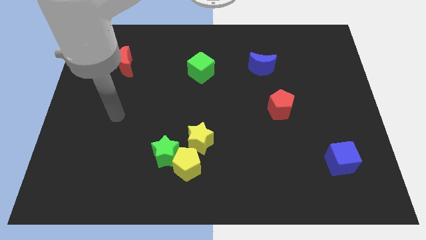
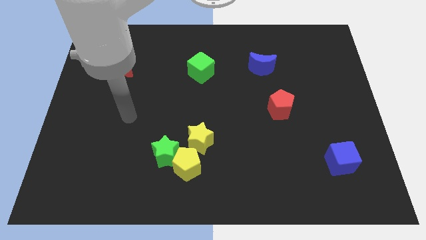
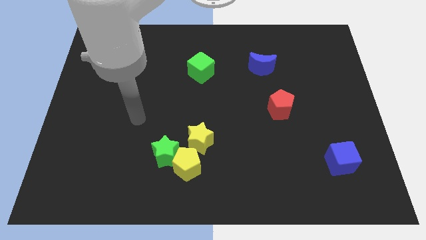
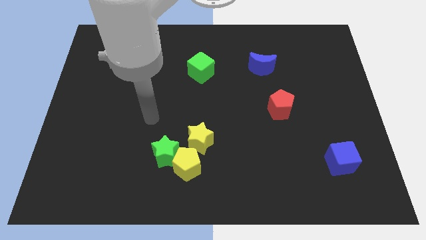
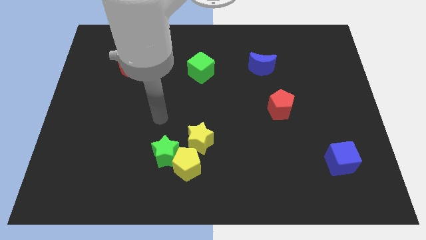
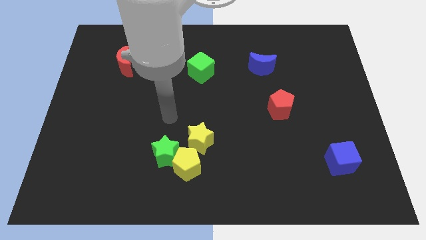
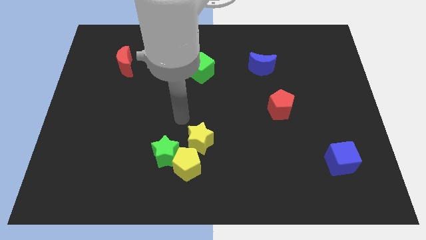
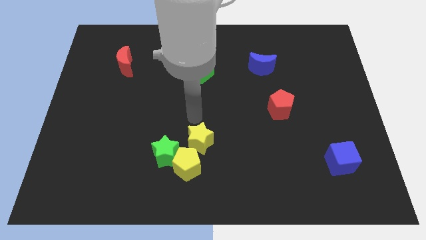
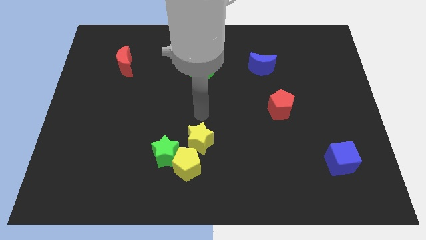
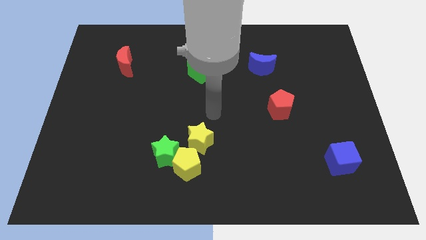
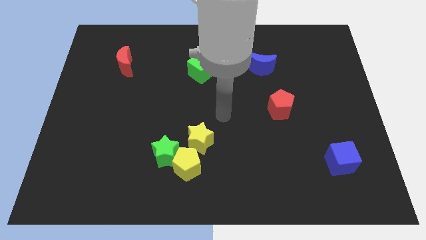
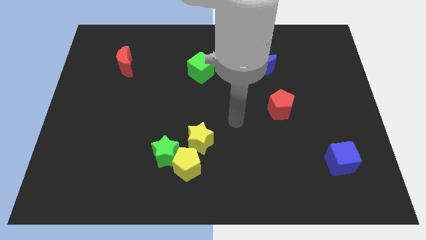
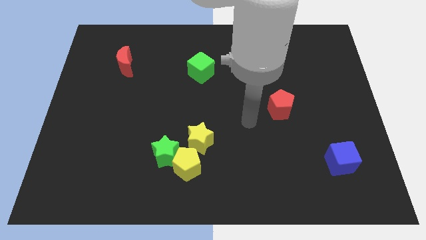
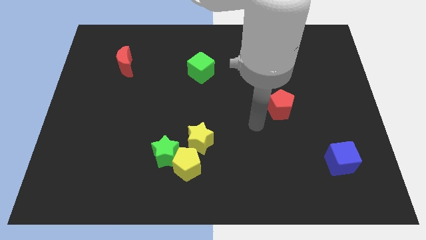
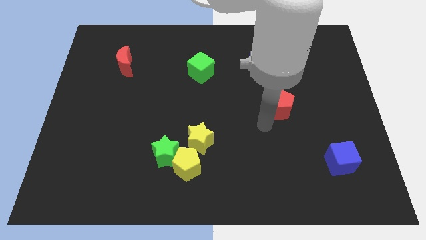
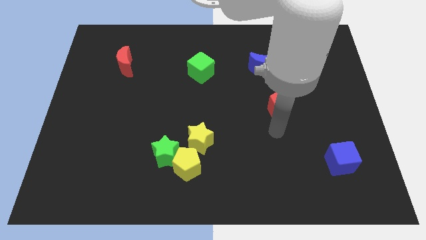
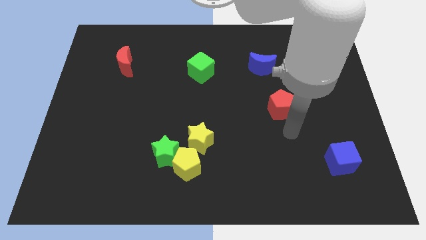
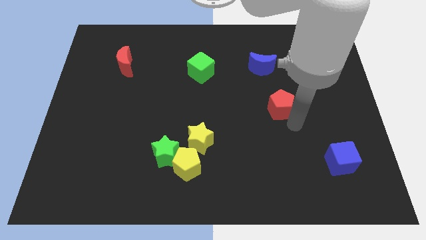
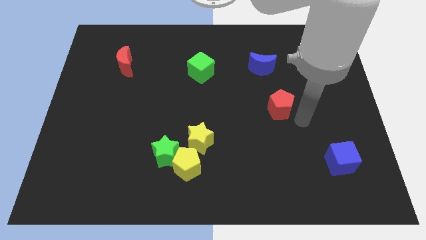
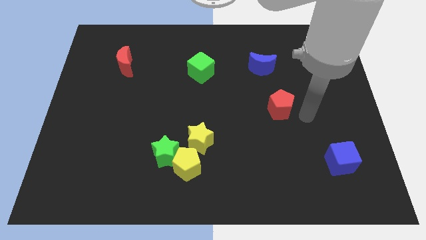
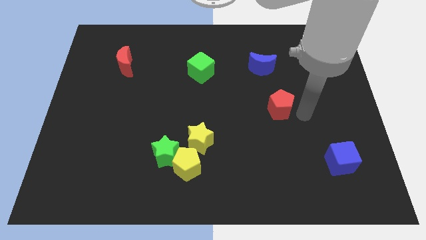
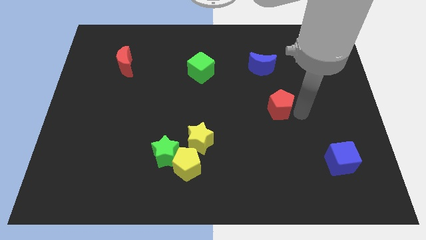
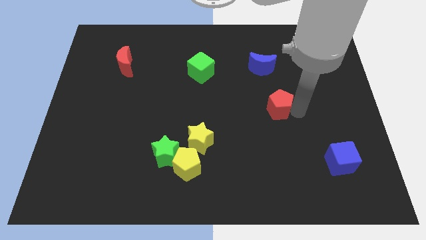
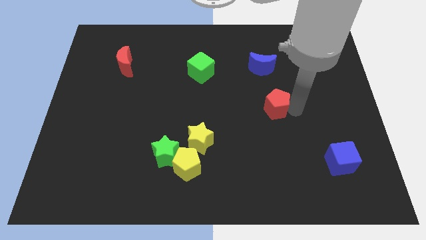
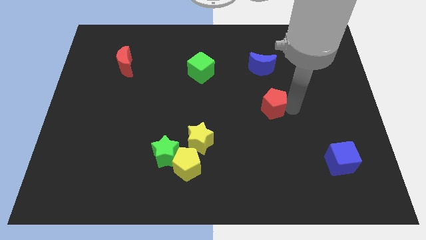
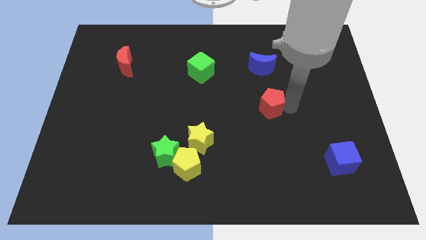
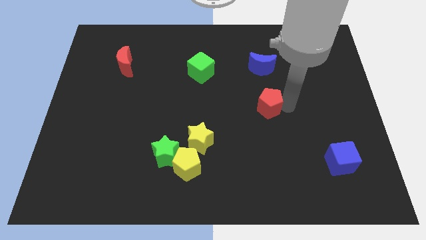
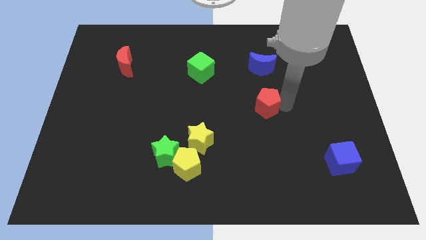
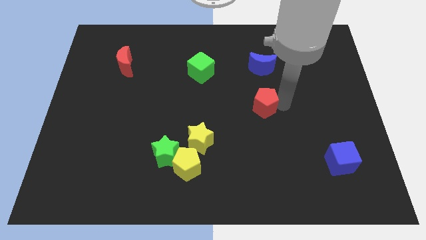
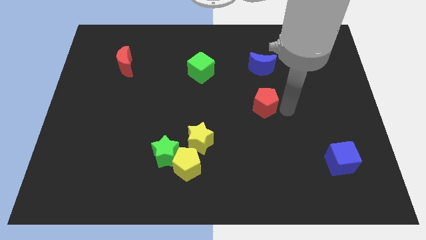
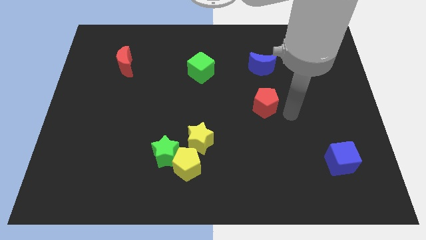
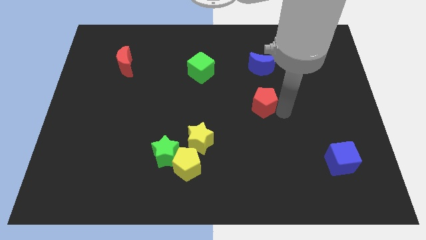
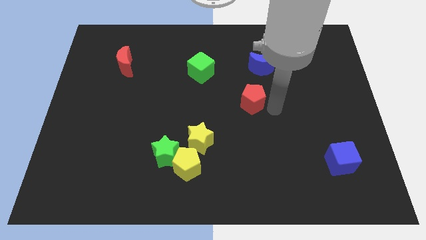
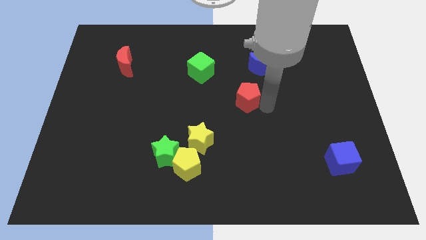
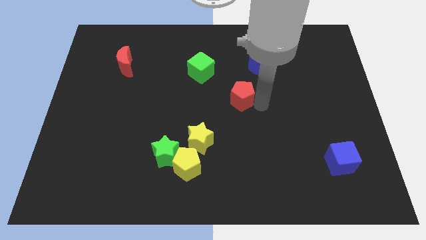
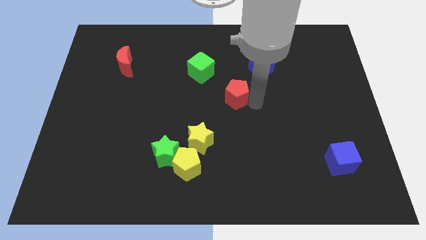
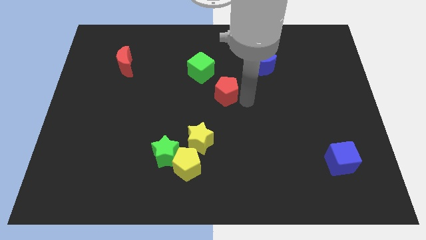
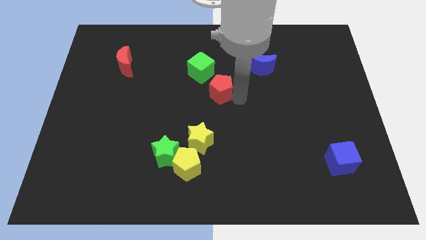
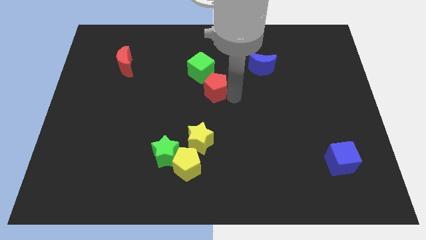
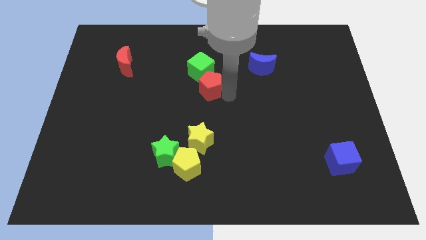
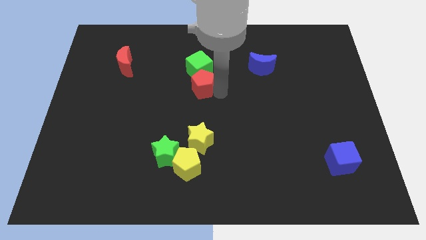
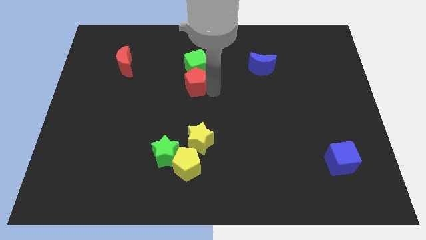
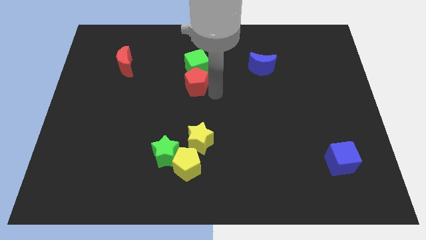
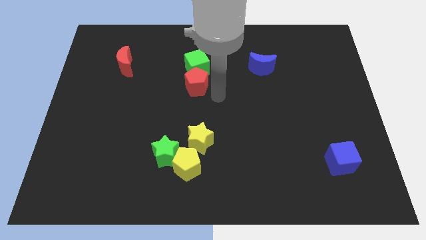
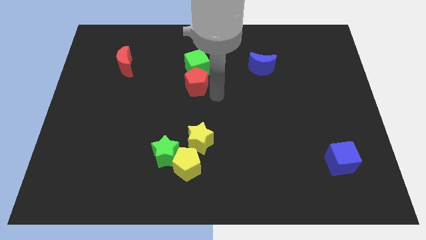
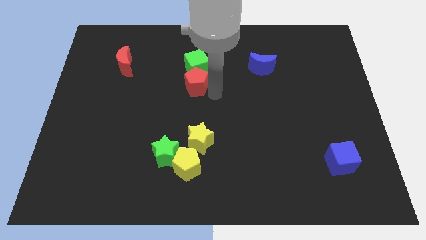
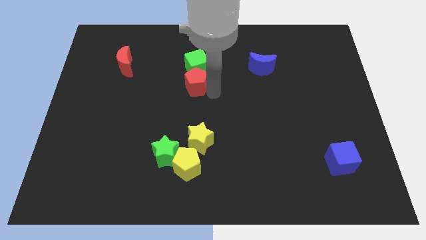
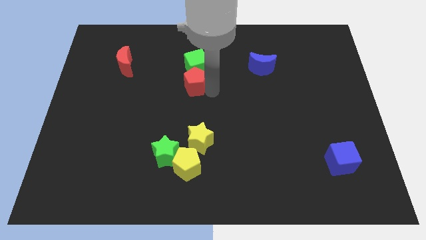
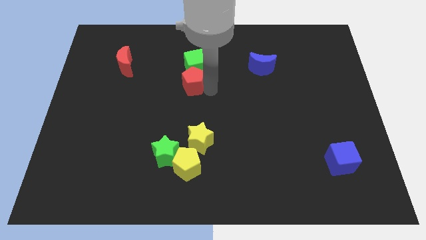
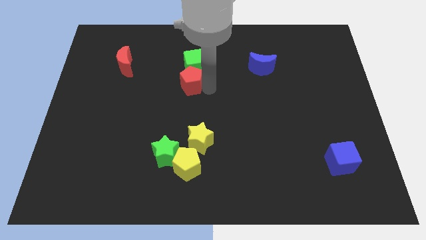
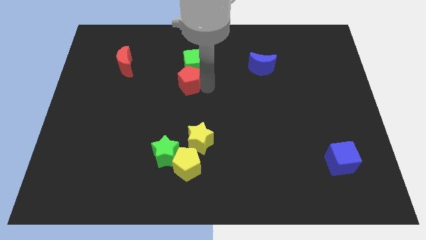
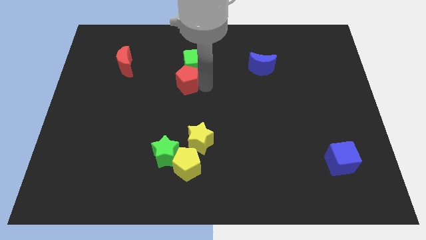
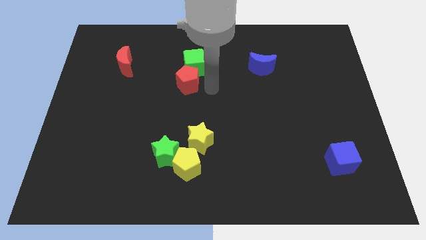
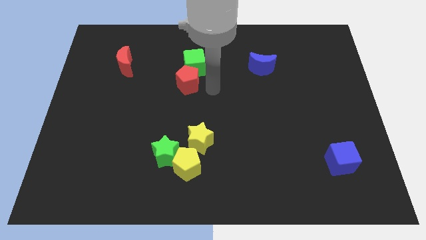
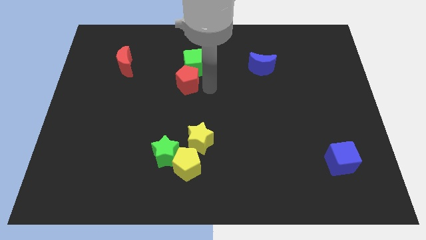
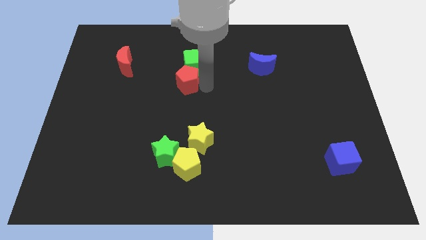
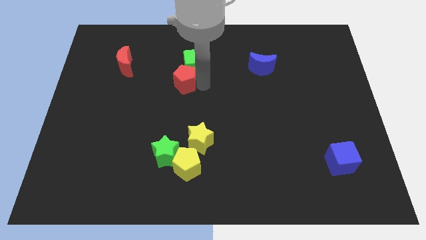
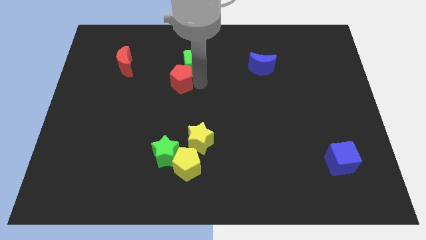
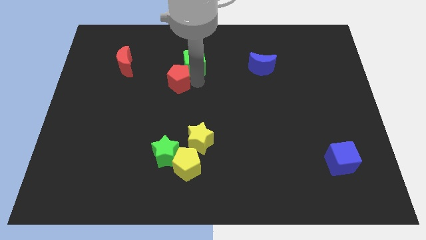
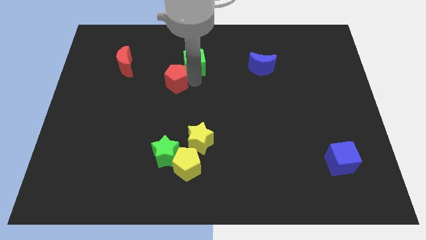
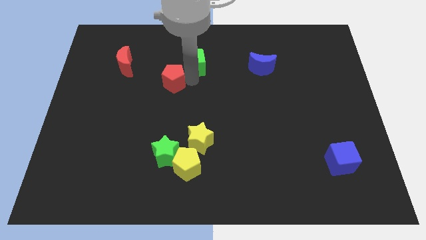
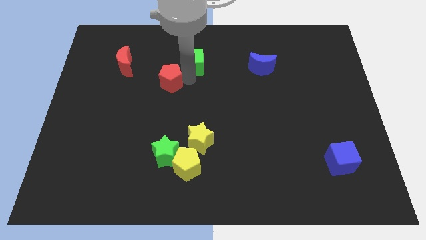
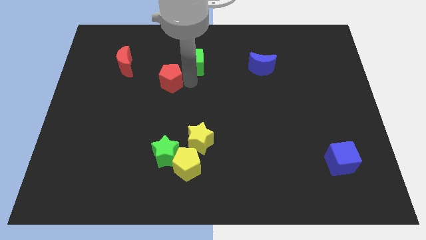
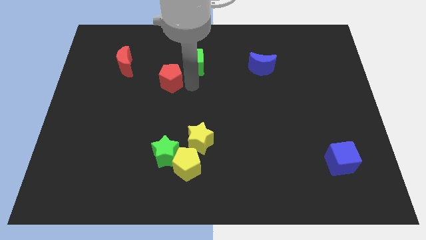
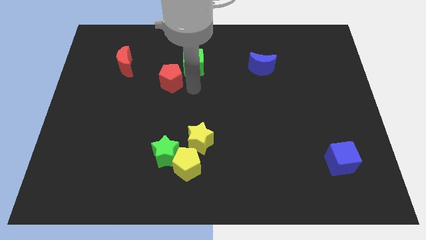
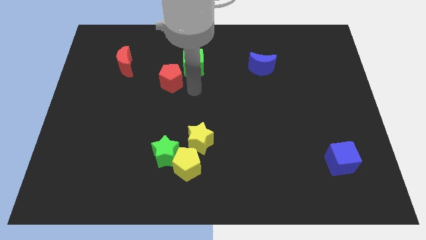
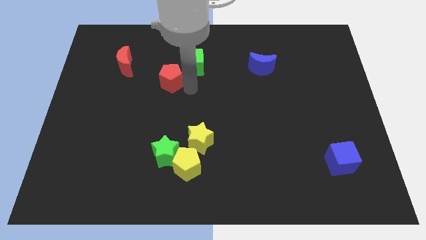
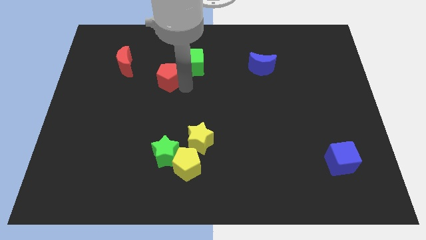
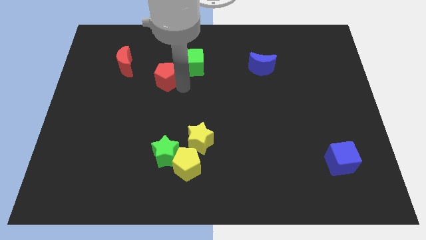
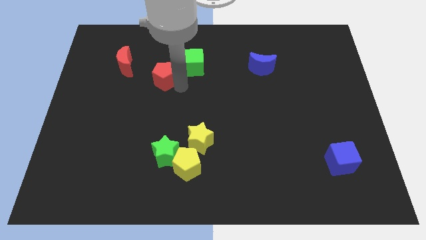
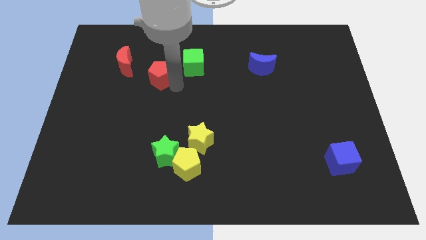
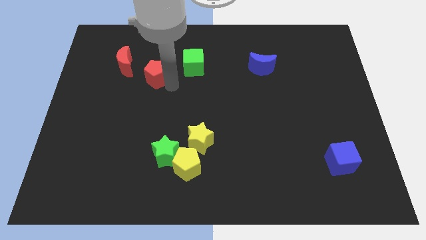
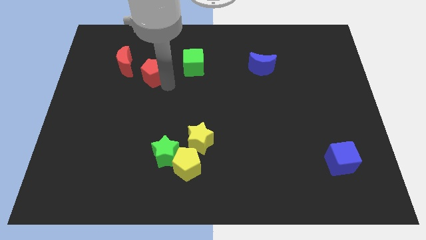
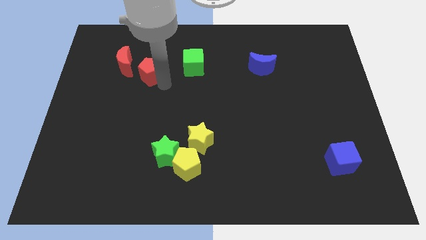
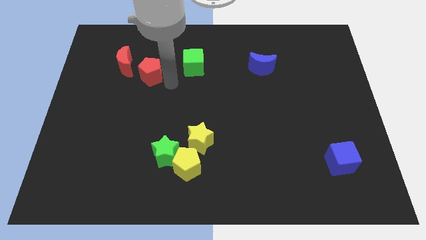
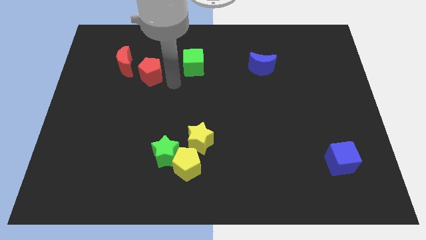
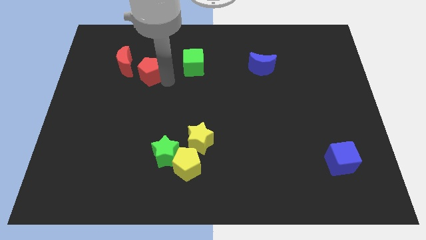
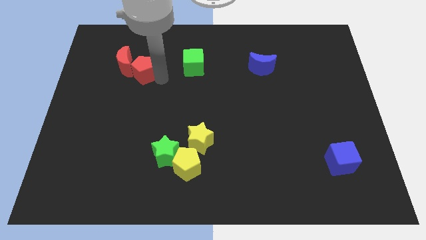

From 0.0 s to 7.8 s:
put the red pentagon to the red moon

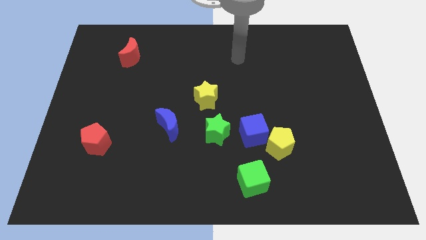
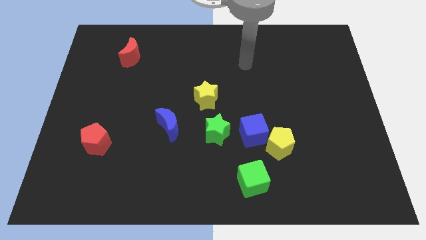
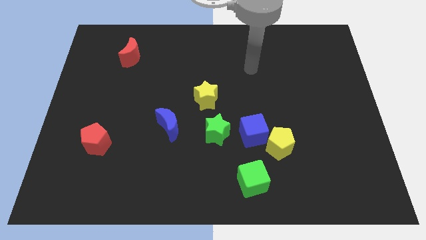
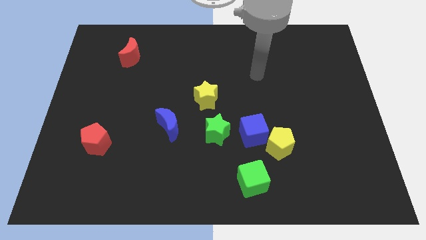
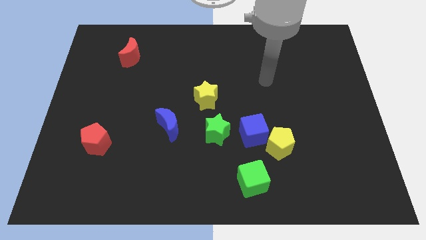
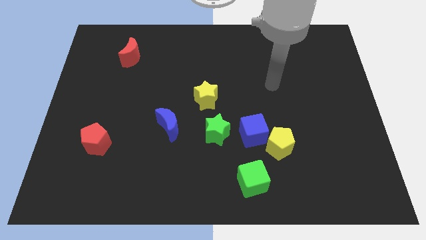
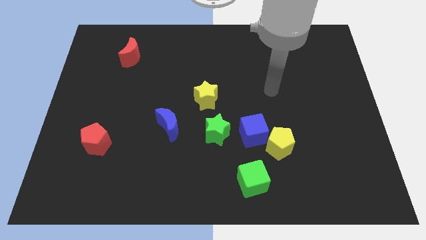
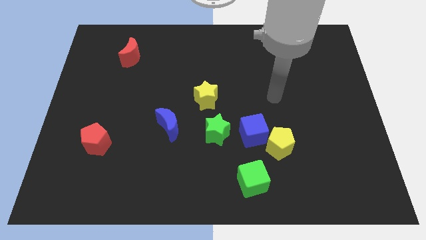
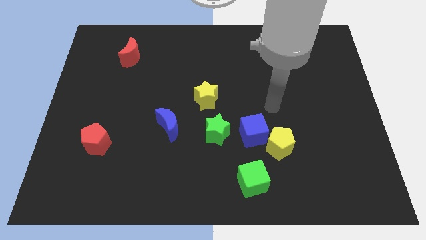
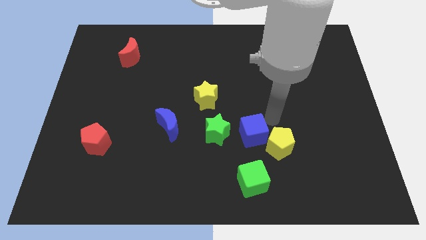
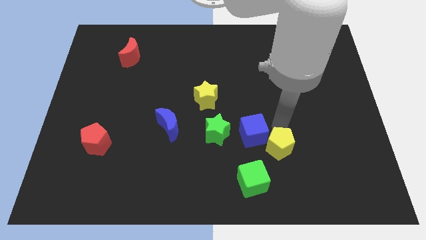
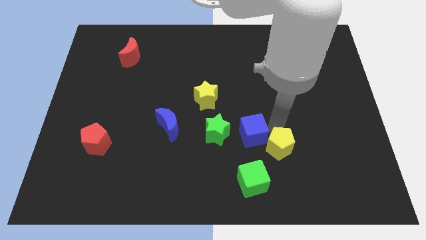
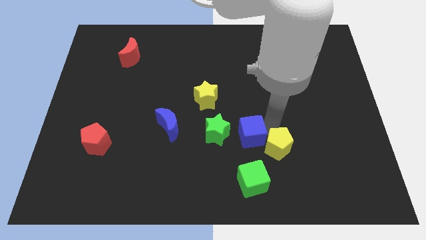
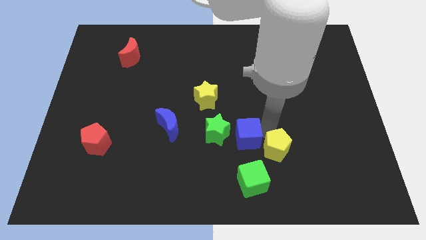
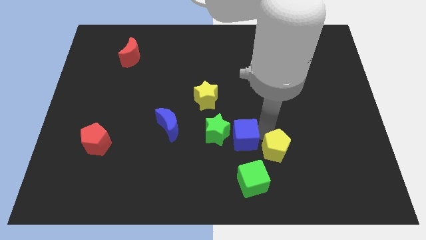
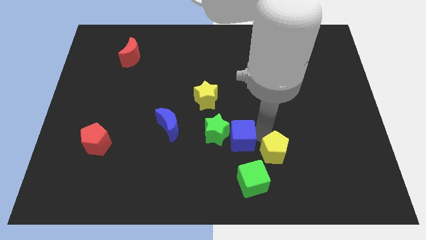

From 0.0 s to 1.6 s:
put the blue cube towards the green star
